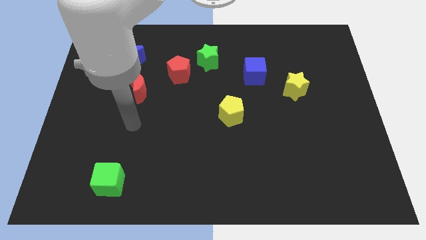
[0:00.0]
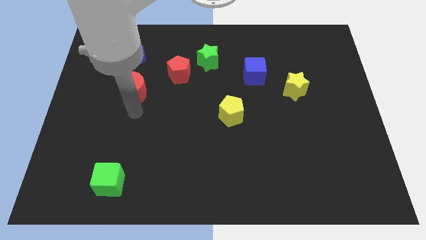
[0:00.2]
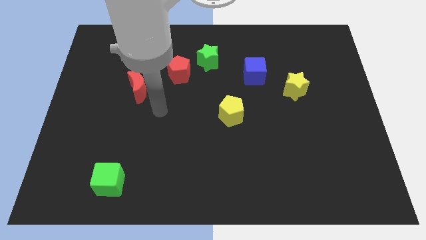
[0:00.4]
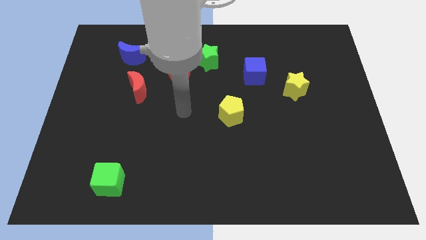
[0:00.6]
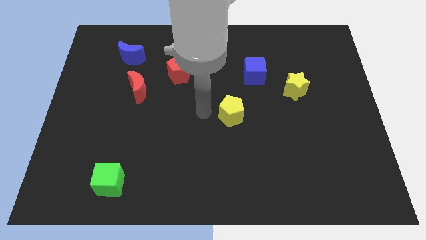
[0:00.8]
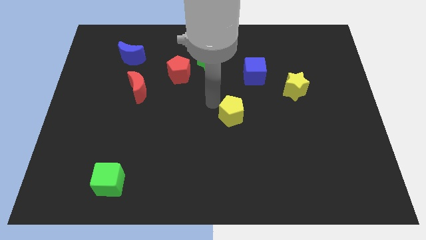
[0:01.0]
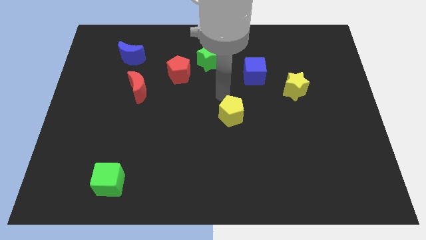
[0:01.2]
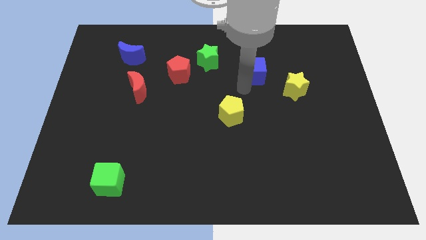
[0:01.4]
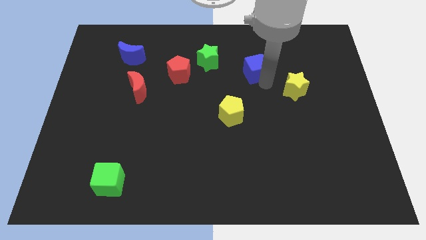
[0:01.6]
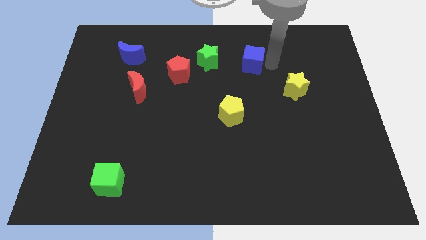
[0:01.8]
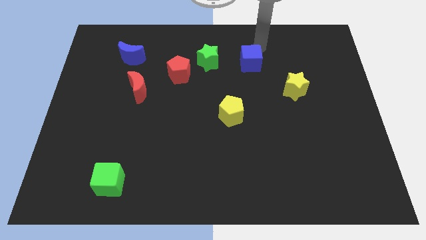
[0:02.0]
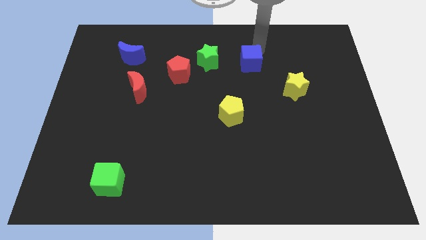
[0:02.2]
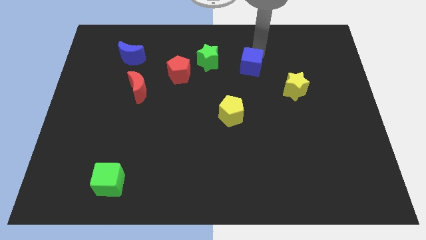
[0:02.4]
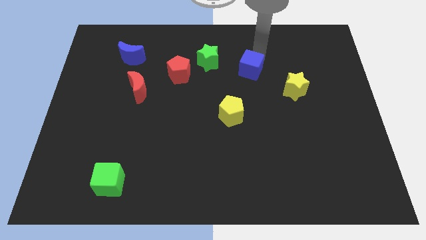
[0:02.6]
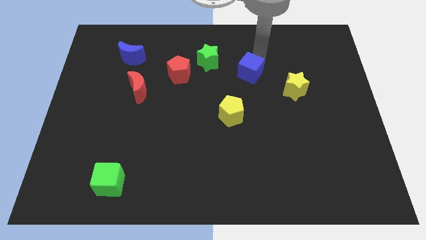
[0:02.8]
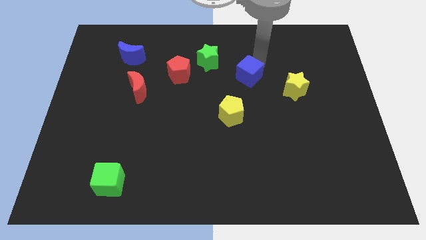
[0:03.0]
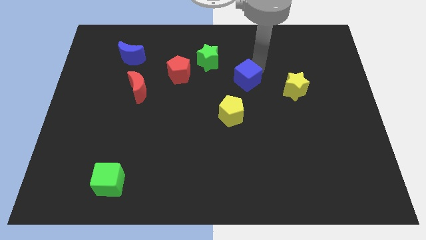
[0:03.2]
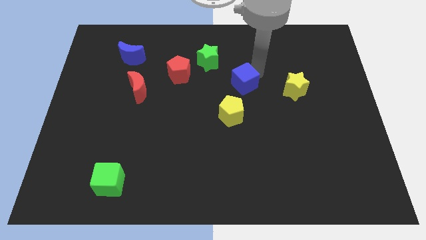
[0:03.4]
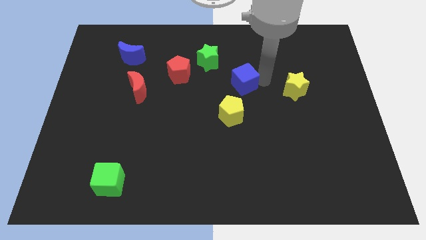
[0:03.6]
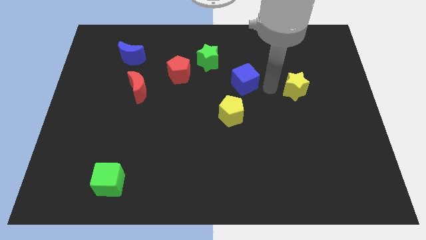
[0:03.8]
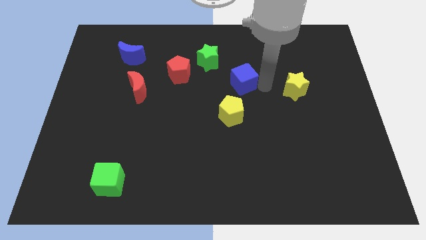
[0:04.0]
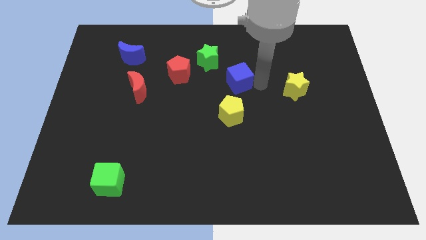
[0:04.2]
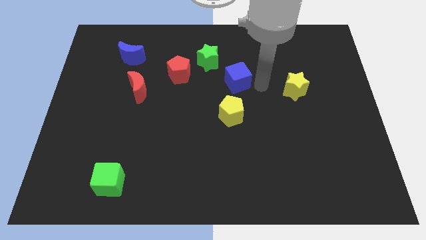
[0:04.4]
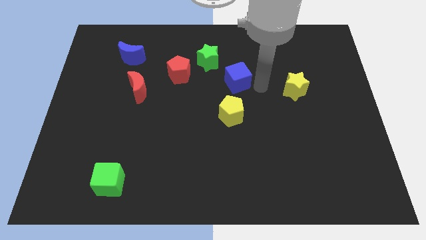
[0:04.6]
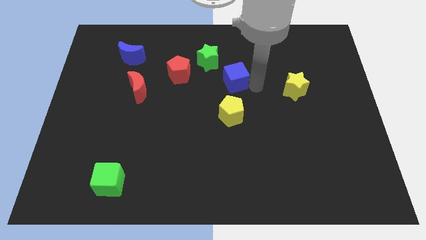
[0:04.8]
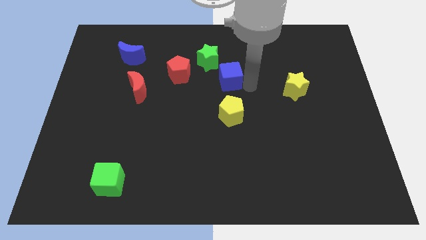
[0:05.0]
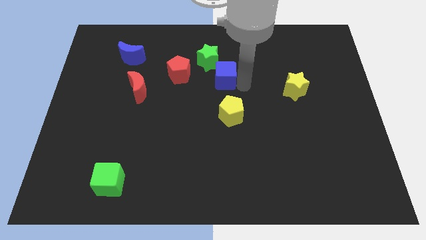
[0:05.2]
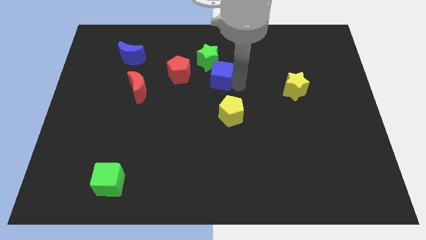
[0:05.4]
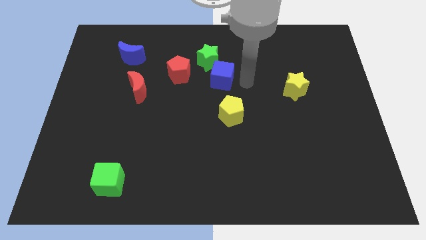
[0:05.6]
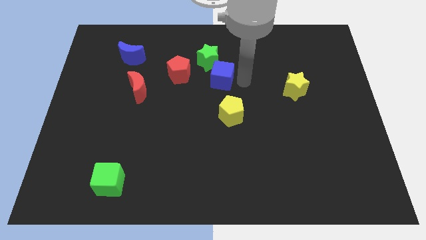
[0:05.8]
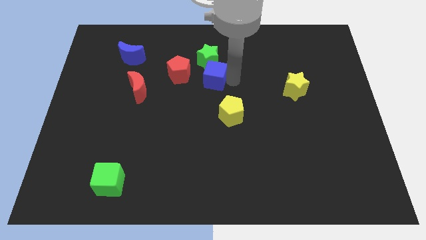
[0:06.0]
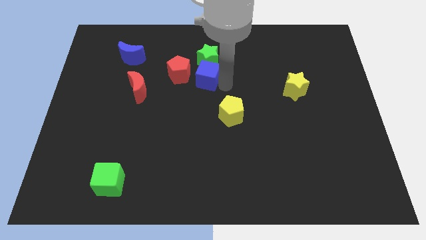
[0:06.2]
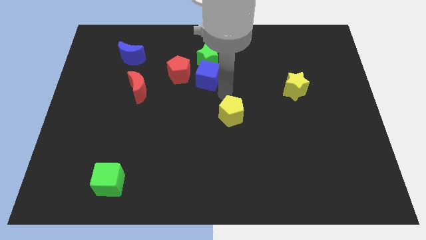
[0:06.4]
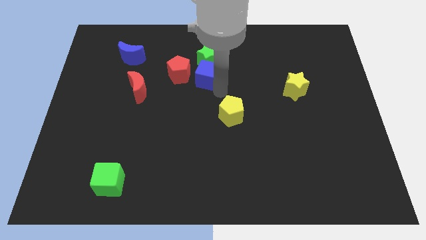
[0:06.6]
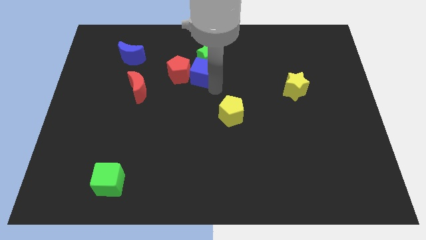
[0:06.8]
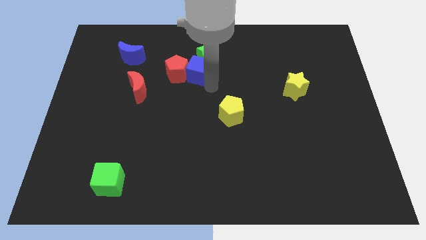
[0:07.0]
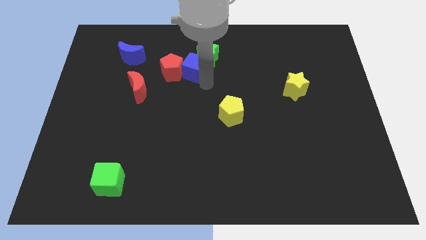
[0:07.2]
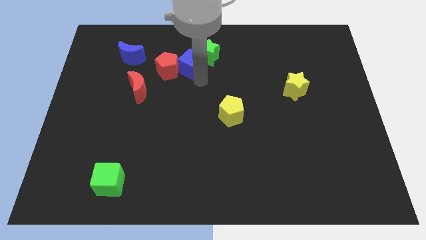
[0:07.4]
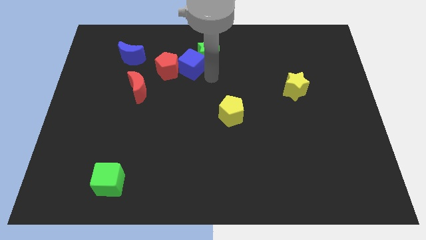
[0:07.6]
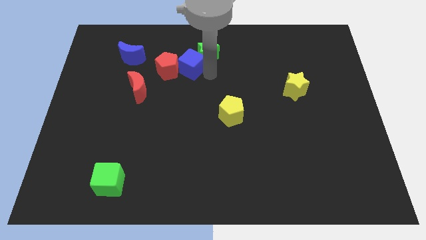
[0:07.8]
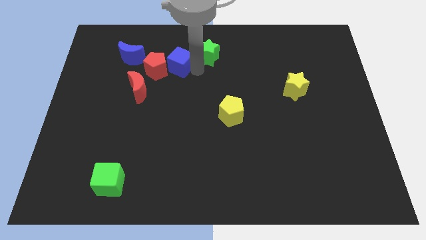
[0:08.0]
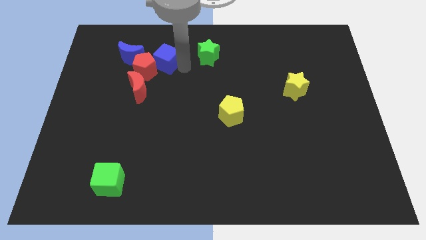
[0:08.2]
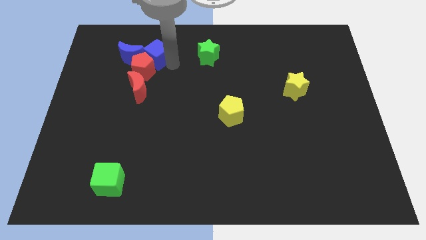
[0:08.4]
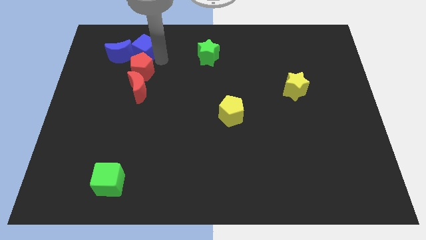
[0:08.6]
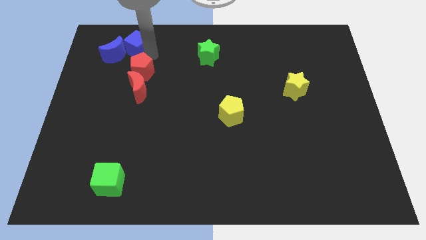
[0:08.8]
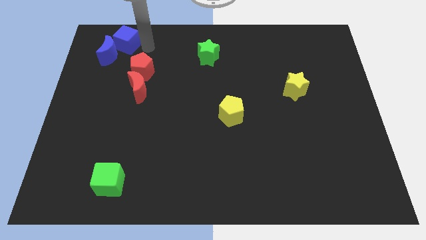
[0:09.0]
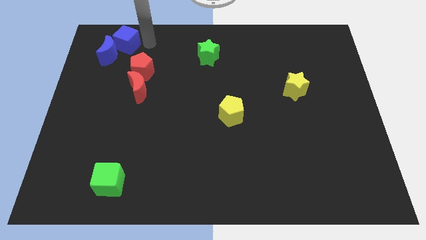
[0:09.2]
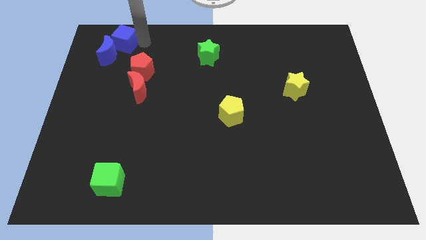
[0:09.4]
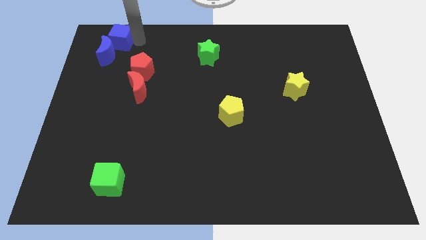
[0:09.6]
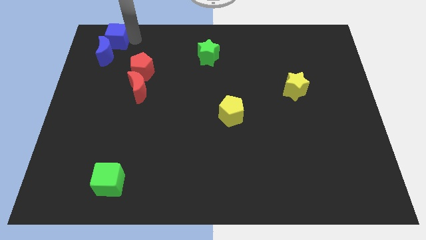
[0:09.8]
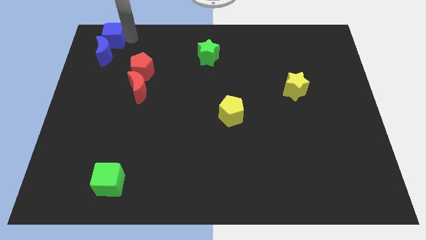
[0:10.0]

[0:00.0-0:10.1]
push the blue cube to the top left

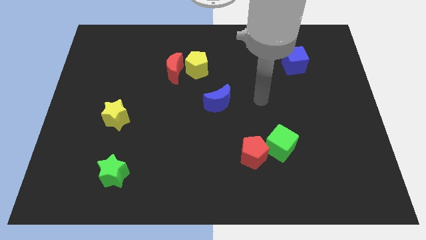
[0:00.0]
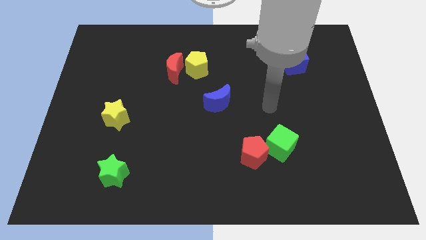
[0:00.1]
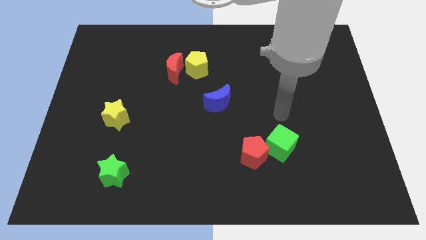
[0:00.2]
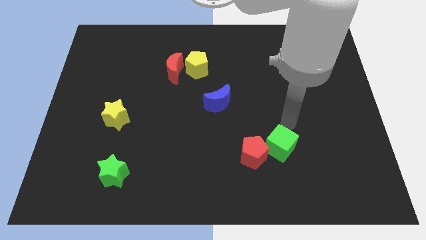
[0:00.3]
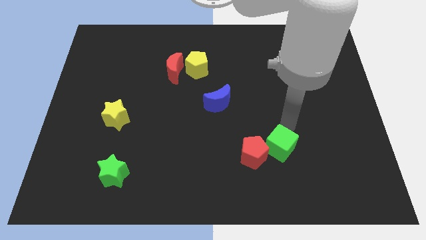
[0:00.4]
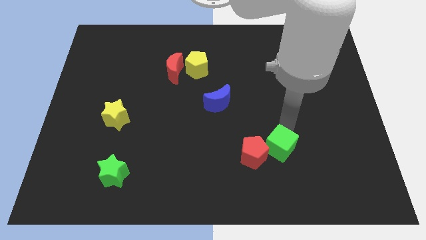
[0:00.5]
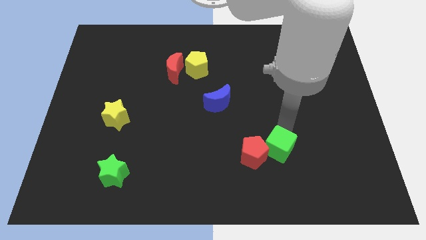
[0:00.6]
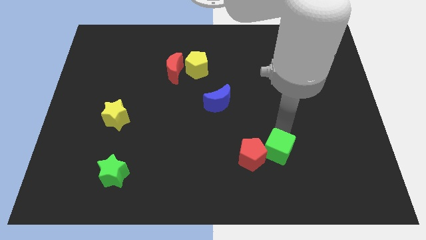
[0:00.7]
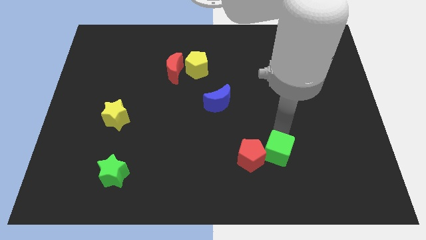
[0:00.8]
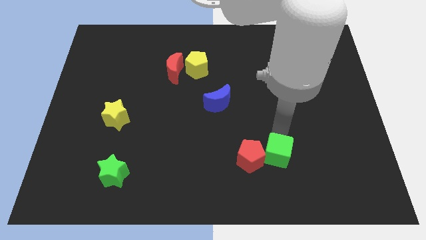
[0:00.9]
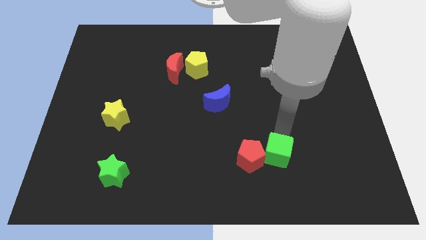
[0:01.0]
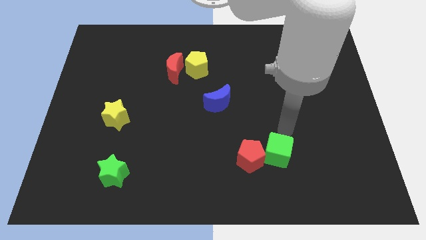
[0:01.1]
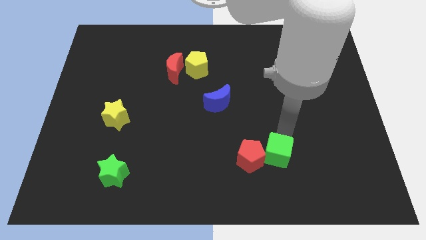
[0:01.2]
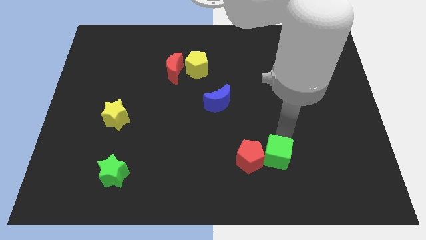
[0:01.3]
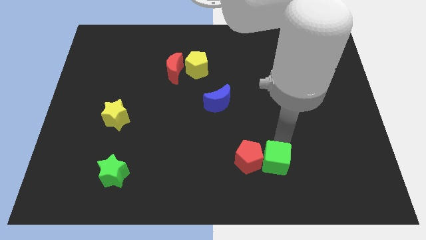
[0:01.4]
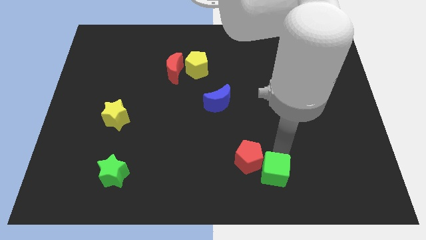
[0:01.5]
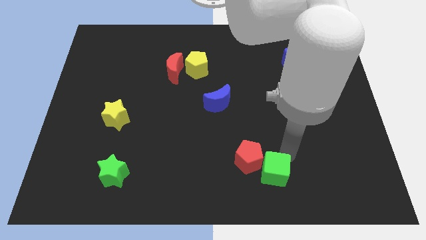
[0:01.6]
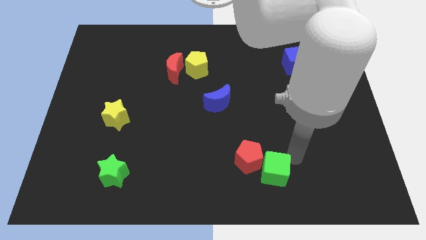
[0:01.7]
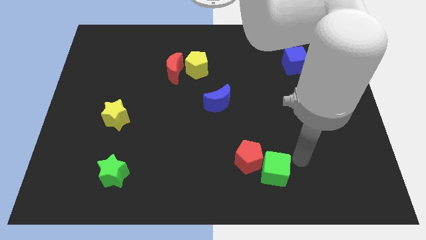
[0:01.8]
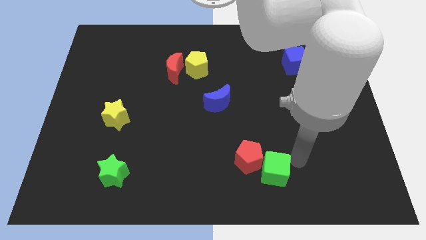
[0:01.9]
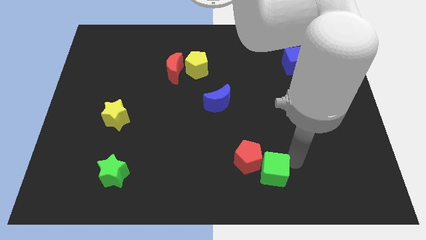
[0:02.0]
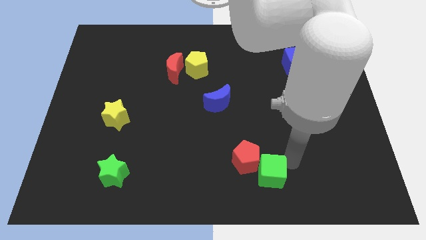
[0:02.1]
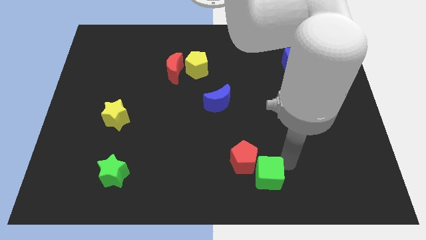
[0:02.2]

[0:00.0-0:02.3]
put the green cube to the bottom side
